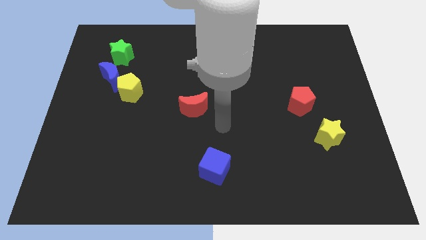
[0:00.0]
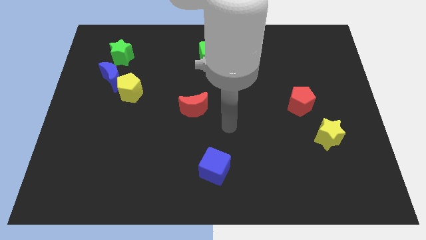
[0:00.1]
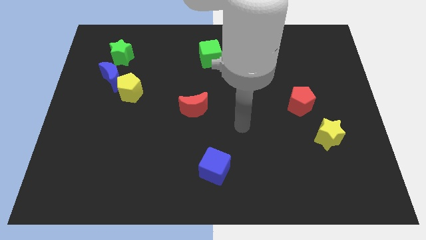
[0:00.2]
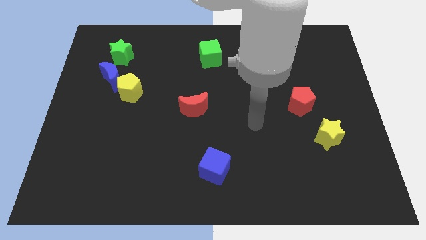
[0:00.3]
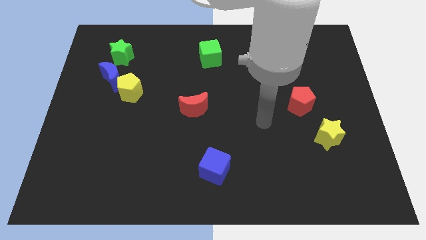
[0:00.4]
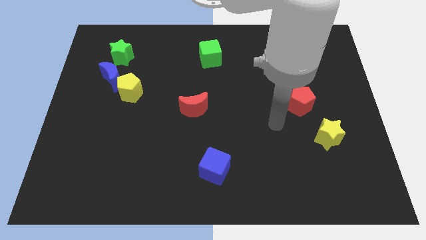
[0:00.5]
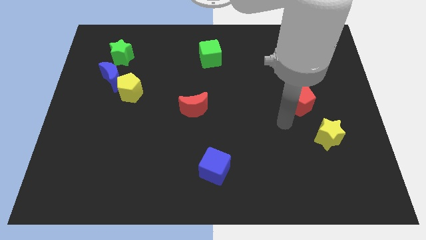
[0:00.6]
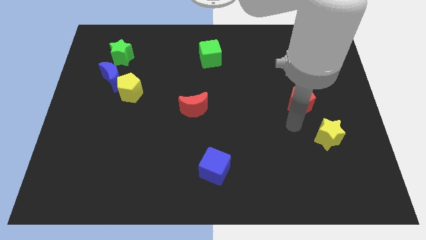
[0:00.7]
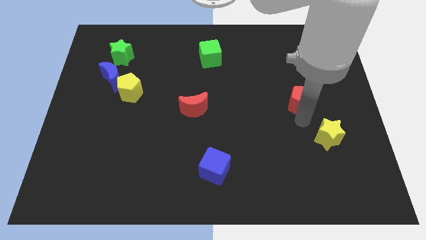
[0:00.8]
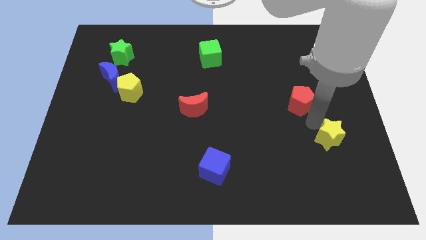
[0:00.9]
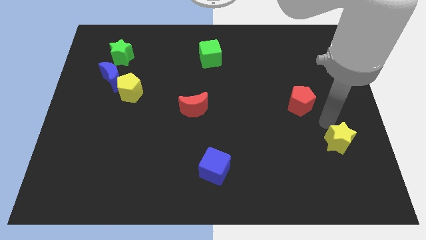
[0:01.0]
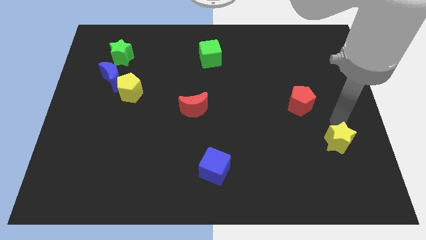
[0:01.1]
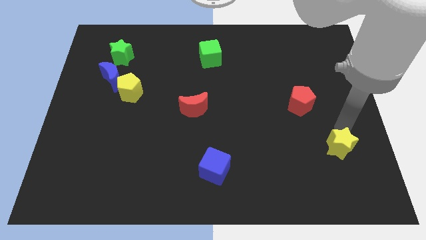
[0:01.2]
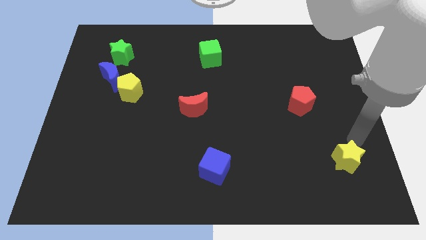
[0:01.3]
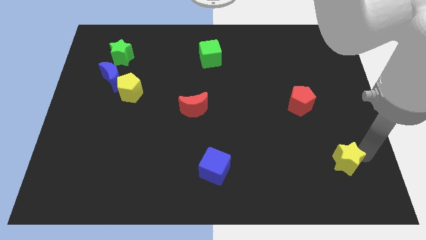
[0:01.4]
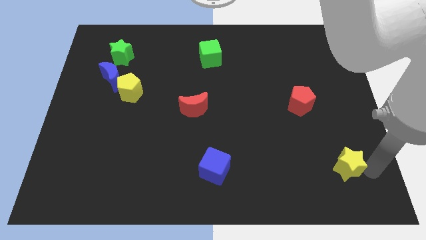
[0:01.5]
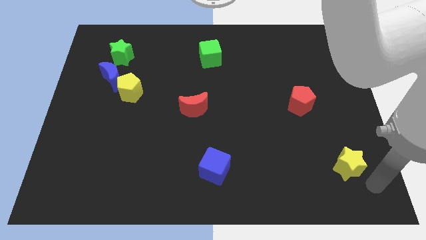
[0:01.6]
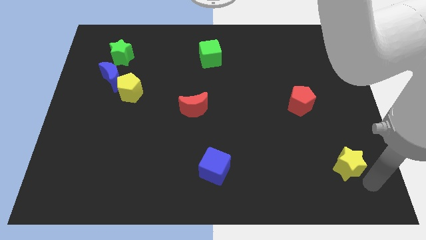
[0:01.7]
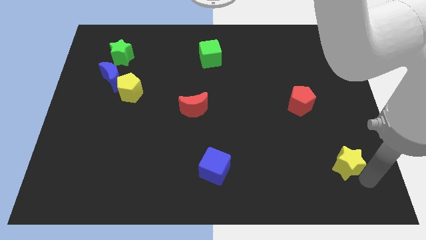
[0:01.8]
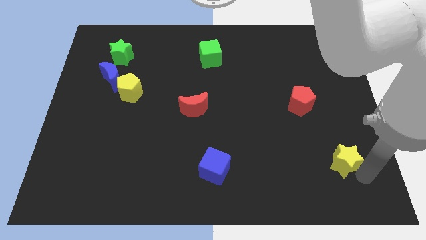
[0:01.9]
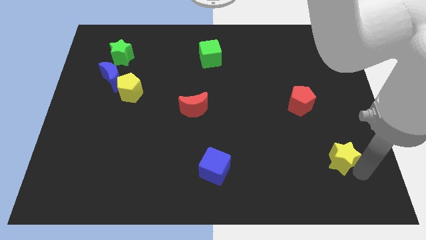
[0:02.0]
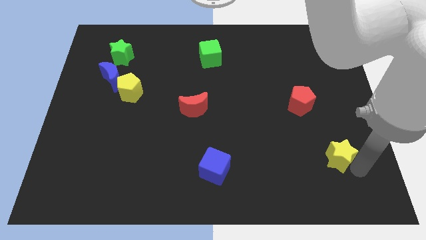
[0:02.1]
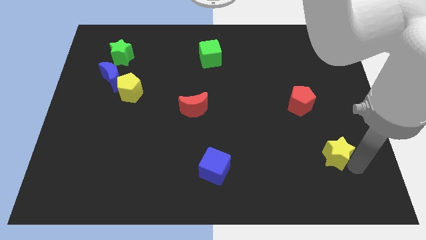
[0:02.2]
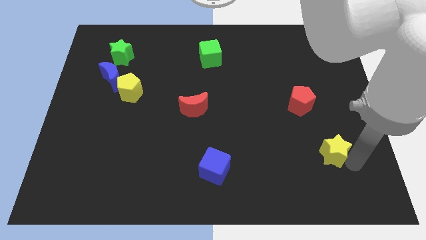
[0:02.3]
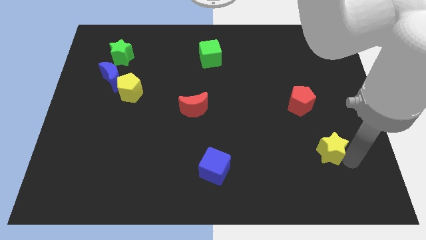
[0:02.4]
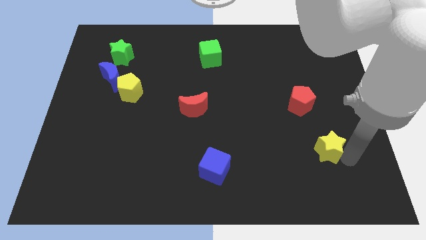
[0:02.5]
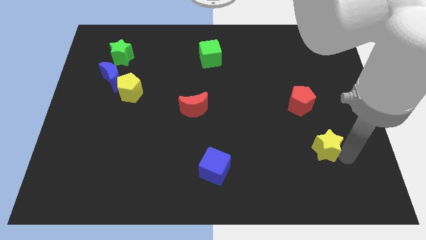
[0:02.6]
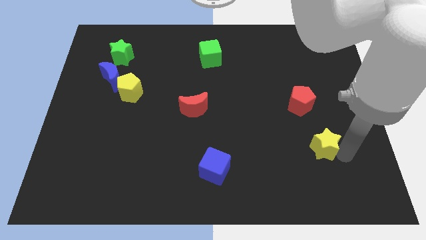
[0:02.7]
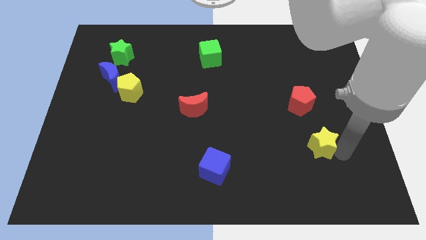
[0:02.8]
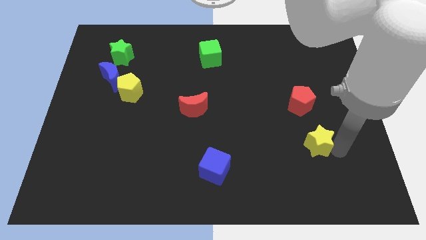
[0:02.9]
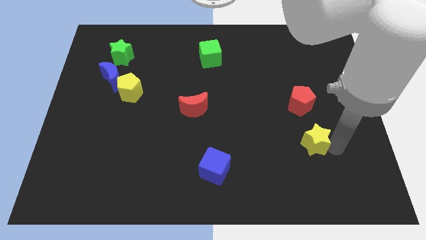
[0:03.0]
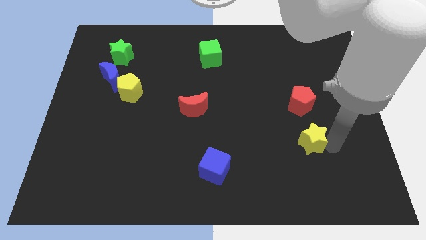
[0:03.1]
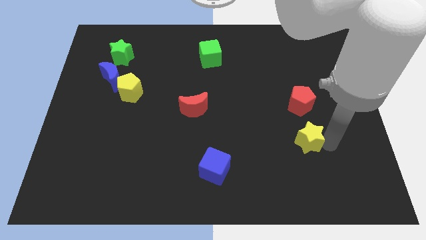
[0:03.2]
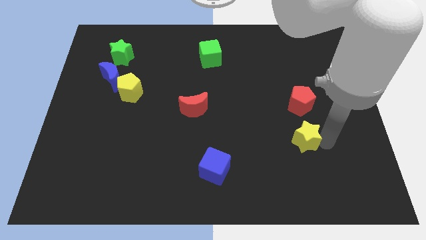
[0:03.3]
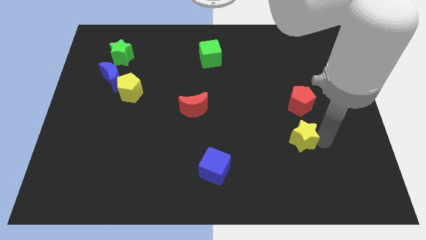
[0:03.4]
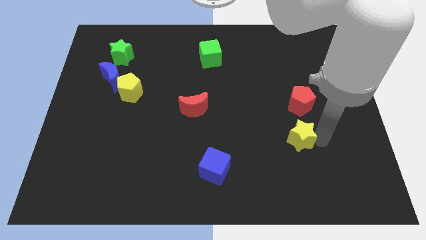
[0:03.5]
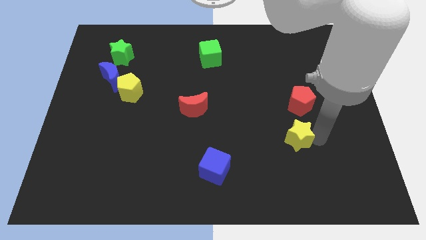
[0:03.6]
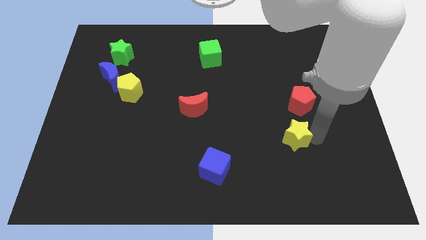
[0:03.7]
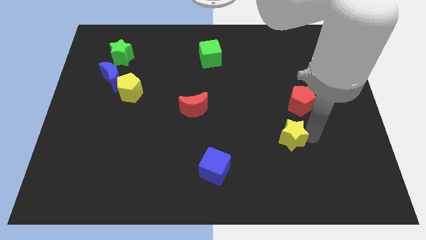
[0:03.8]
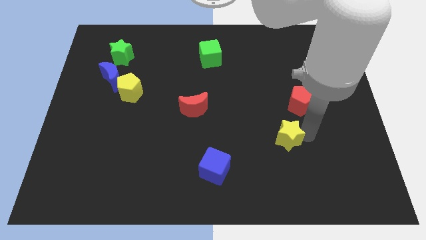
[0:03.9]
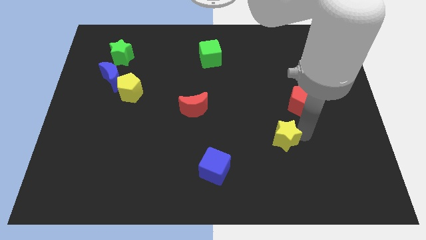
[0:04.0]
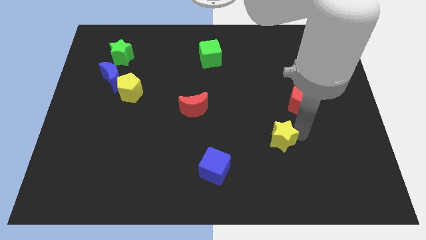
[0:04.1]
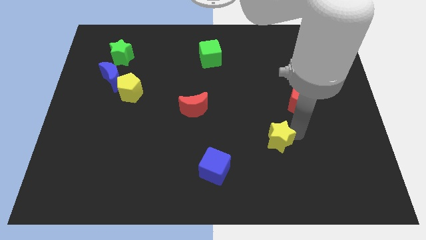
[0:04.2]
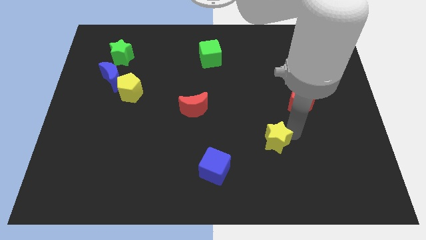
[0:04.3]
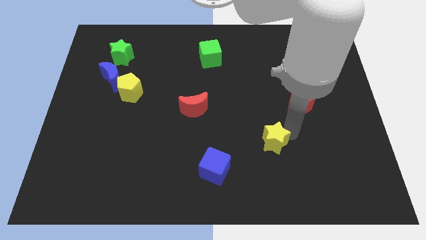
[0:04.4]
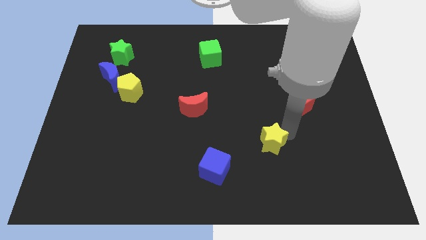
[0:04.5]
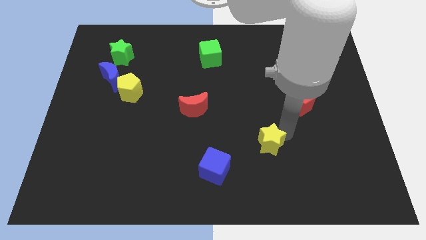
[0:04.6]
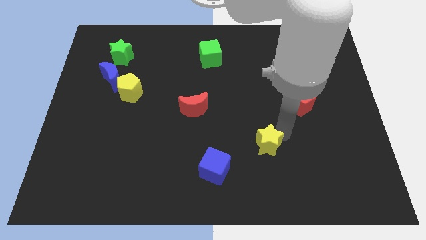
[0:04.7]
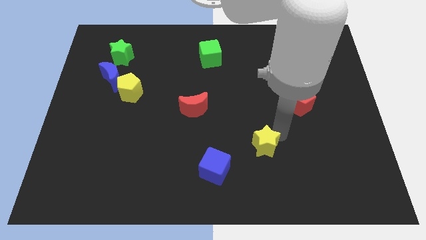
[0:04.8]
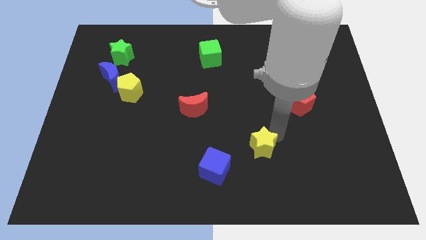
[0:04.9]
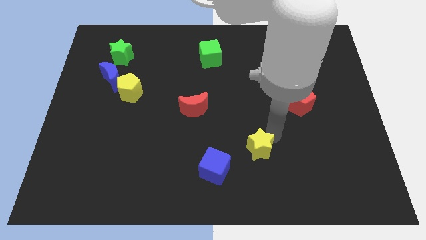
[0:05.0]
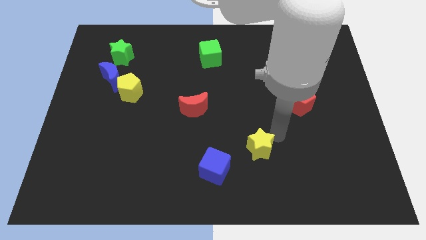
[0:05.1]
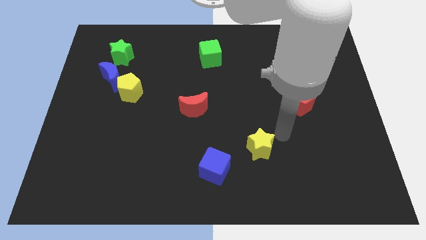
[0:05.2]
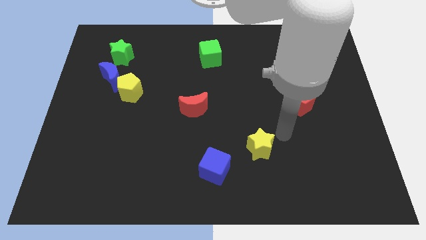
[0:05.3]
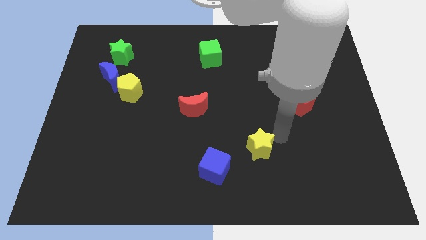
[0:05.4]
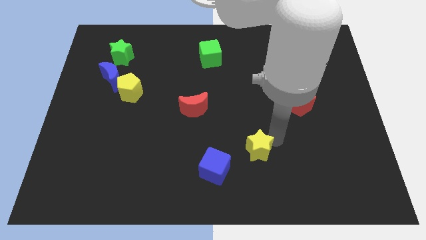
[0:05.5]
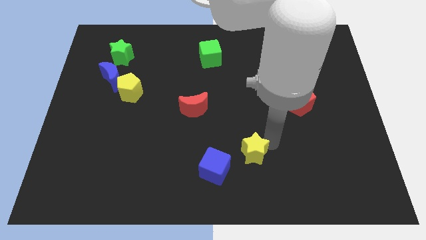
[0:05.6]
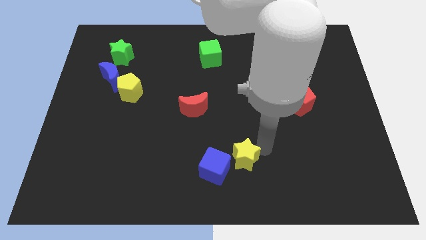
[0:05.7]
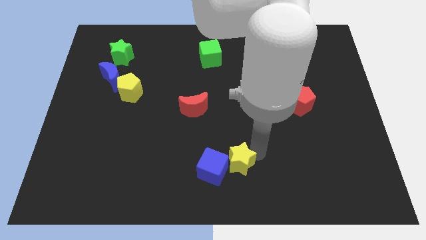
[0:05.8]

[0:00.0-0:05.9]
move the yellow star close to the blue cube
